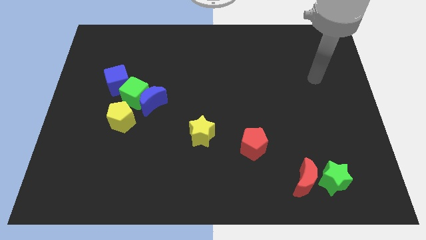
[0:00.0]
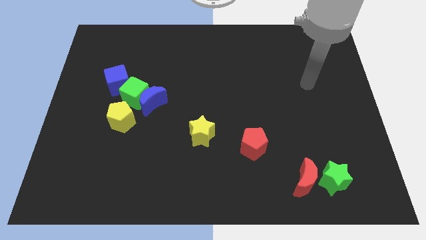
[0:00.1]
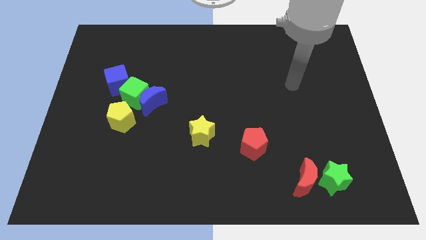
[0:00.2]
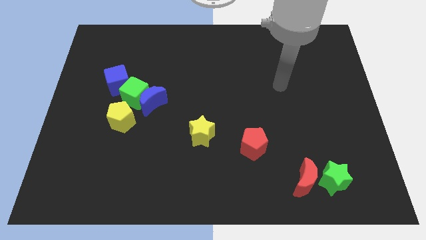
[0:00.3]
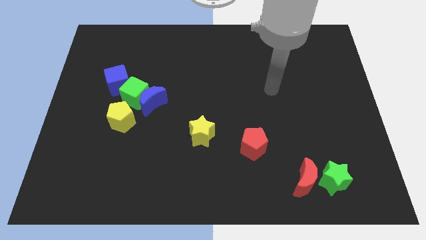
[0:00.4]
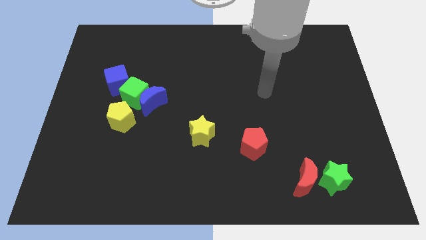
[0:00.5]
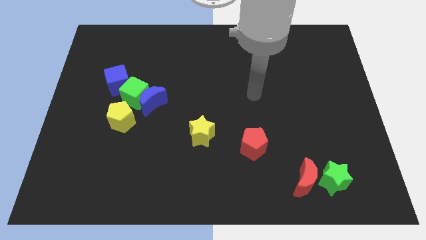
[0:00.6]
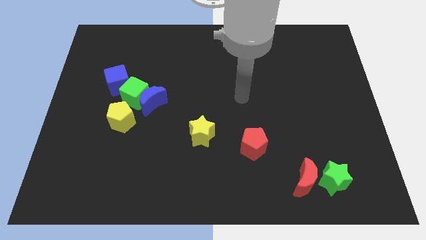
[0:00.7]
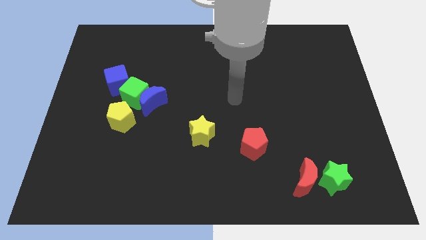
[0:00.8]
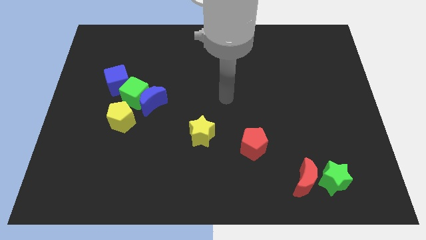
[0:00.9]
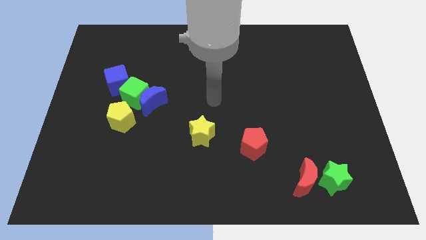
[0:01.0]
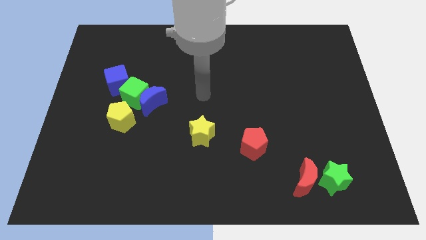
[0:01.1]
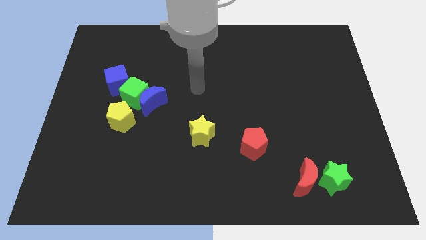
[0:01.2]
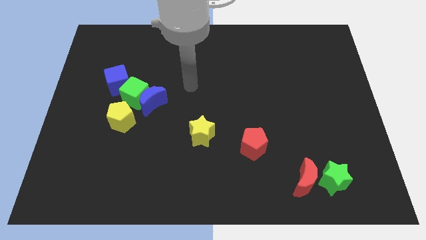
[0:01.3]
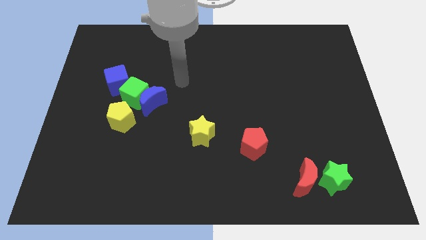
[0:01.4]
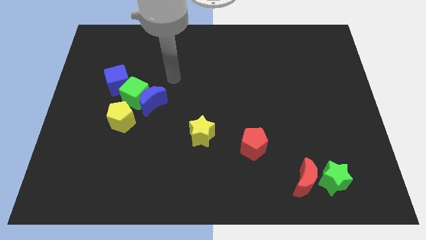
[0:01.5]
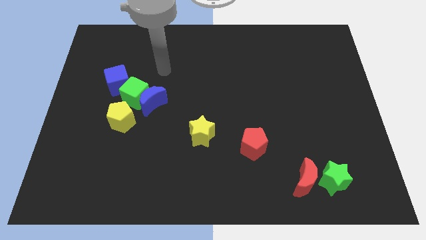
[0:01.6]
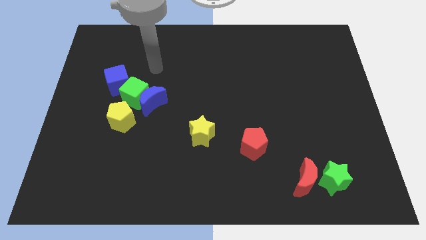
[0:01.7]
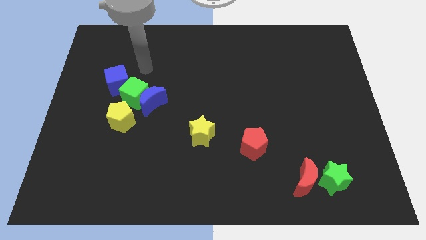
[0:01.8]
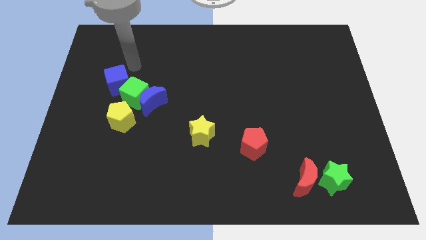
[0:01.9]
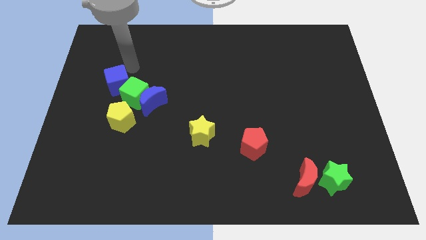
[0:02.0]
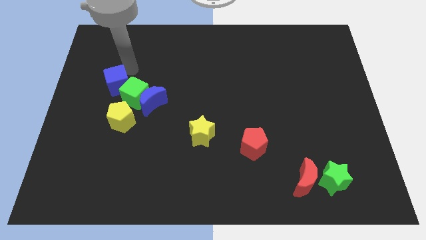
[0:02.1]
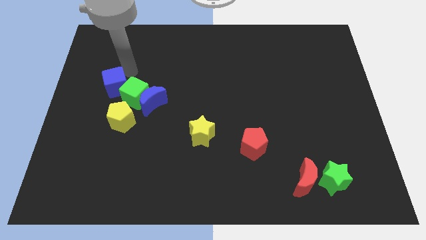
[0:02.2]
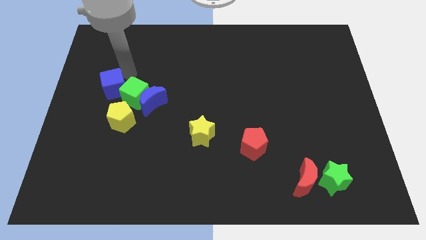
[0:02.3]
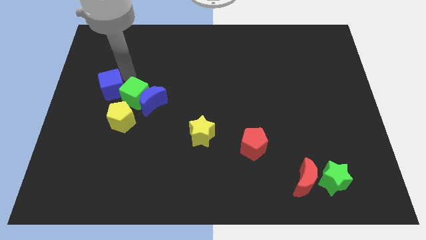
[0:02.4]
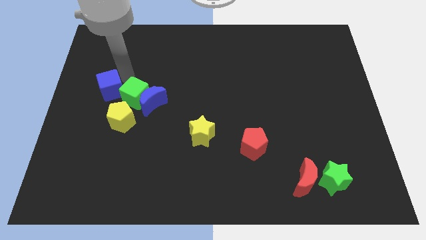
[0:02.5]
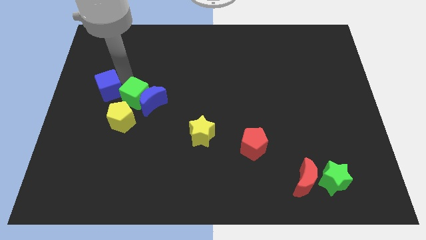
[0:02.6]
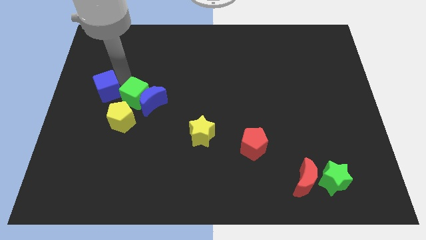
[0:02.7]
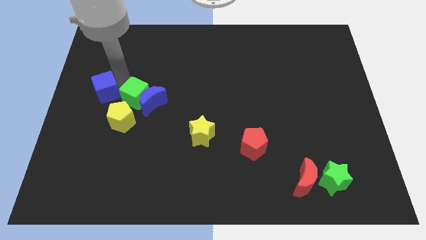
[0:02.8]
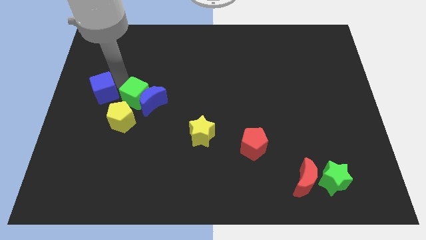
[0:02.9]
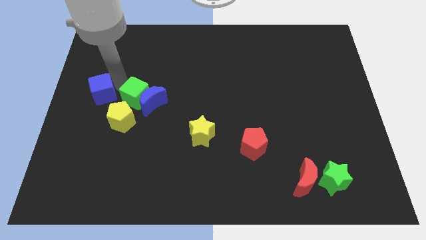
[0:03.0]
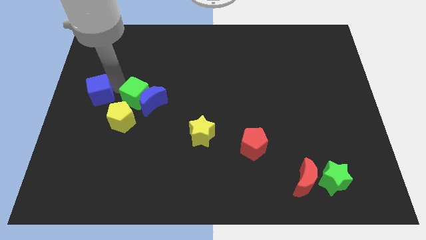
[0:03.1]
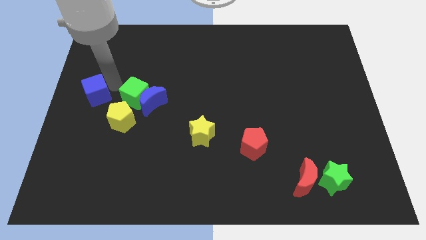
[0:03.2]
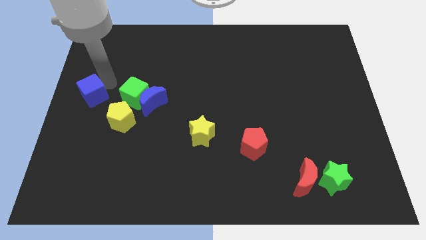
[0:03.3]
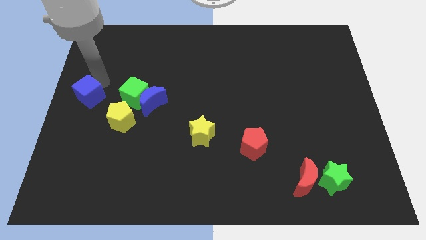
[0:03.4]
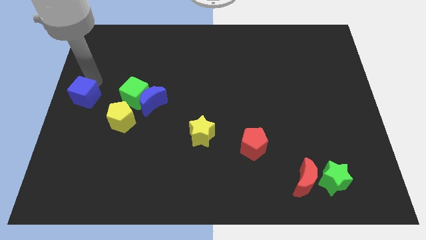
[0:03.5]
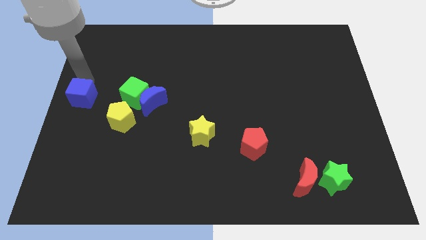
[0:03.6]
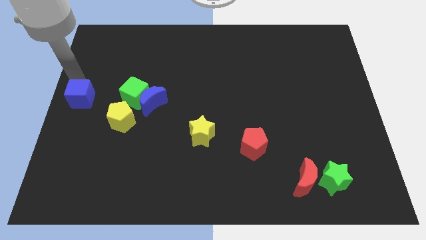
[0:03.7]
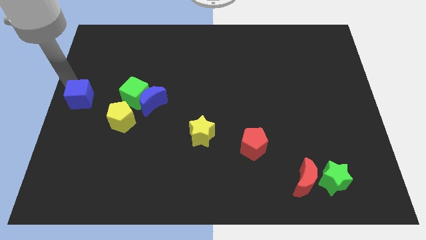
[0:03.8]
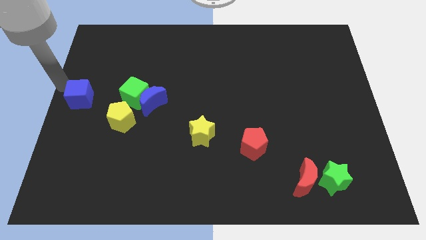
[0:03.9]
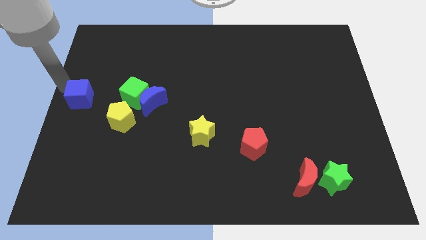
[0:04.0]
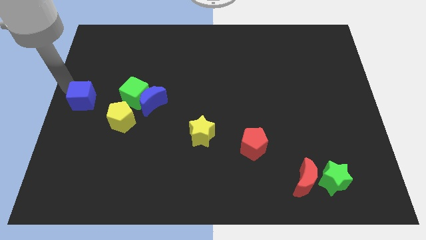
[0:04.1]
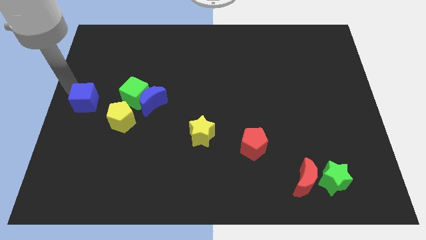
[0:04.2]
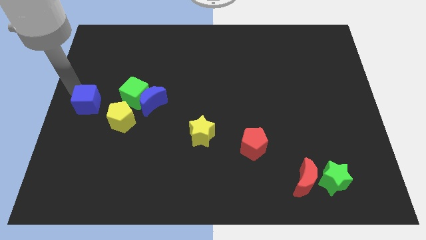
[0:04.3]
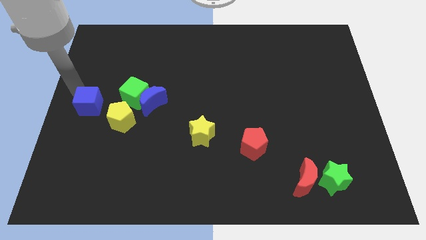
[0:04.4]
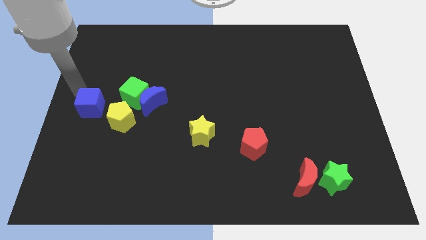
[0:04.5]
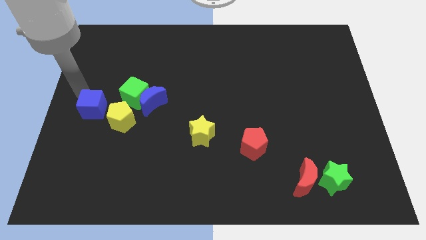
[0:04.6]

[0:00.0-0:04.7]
move the blue cube diagonally down and to the left of the green cube

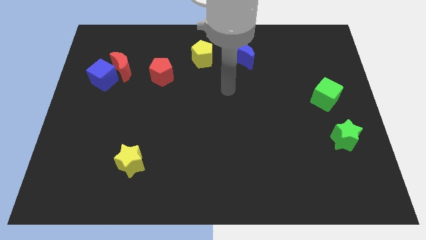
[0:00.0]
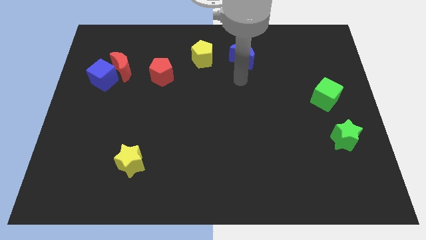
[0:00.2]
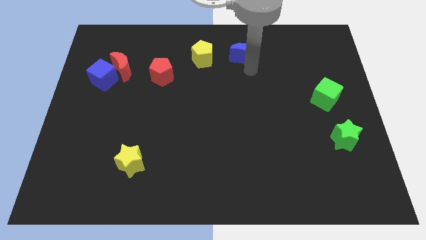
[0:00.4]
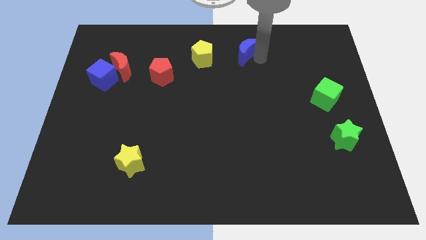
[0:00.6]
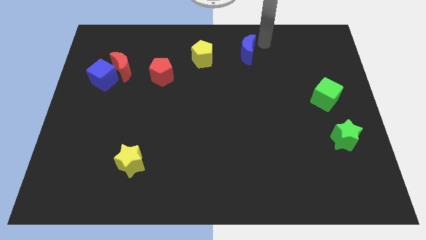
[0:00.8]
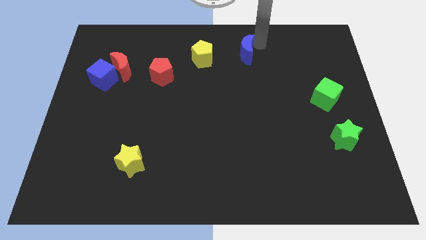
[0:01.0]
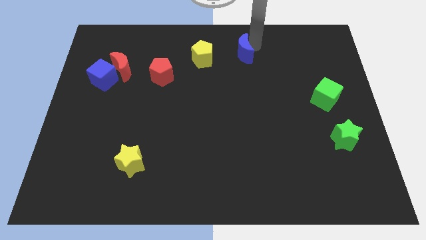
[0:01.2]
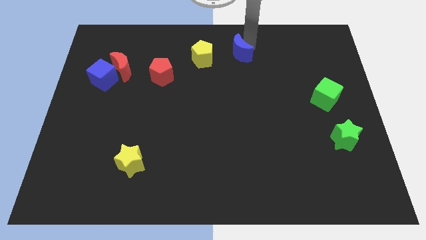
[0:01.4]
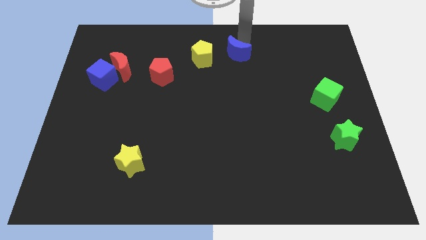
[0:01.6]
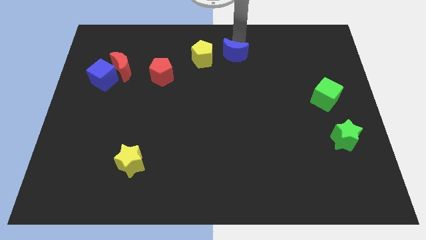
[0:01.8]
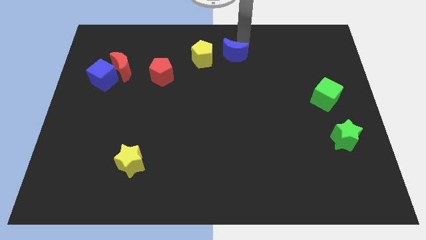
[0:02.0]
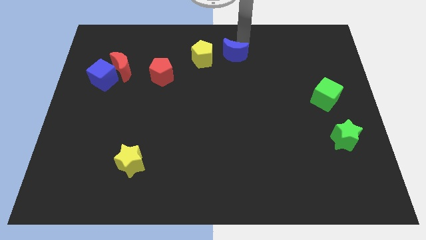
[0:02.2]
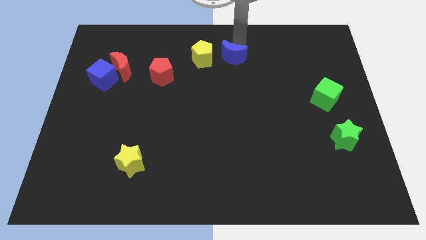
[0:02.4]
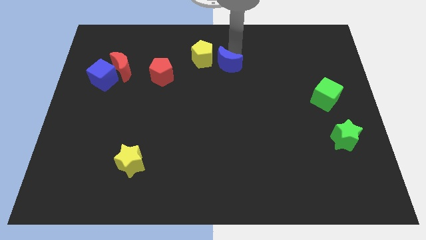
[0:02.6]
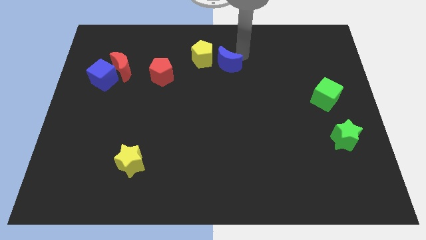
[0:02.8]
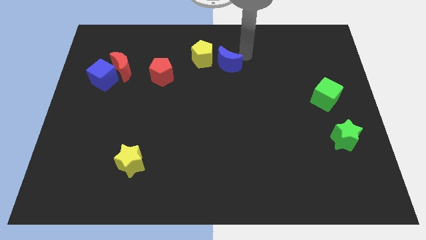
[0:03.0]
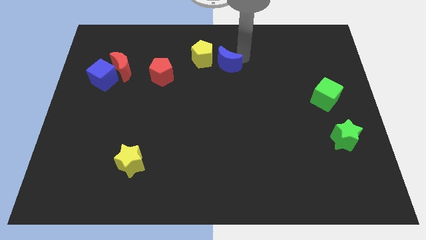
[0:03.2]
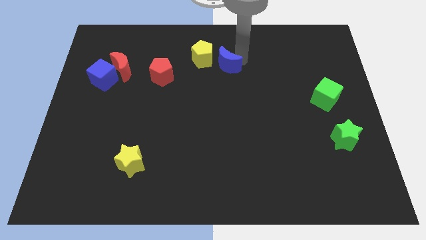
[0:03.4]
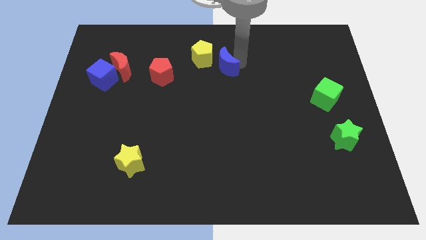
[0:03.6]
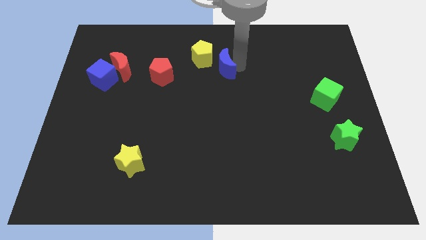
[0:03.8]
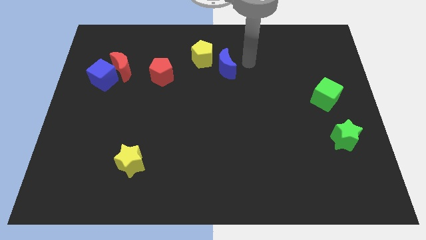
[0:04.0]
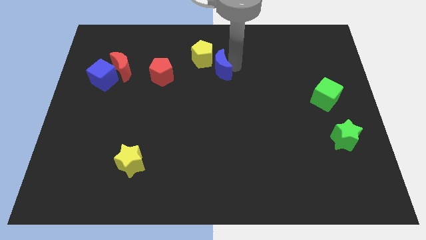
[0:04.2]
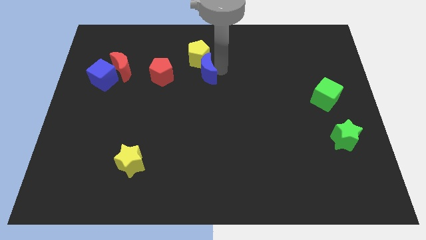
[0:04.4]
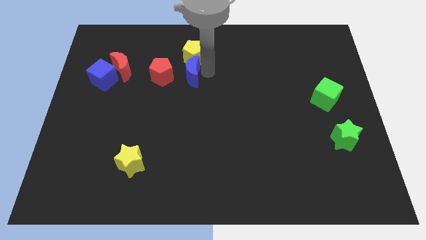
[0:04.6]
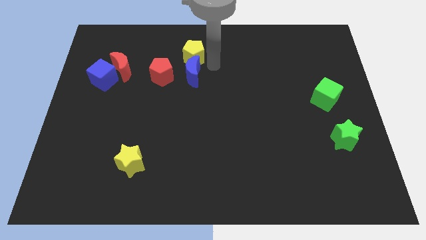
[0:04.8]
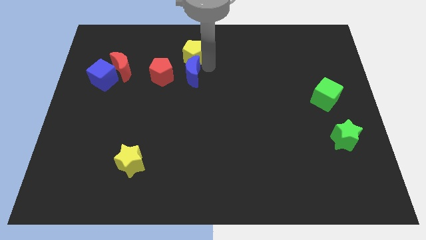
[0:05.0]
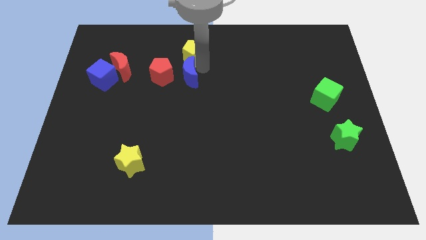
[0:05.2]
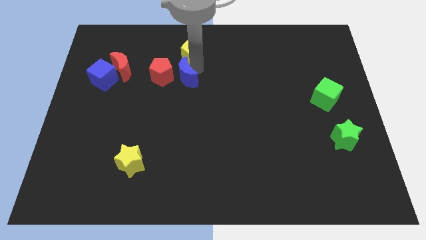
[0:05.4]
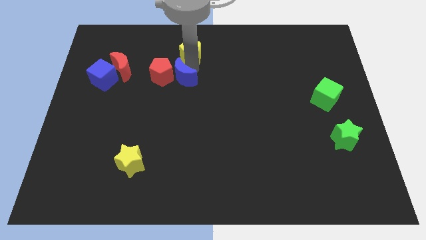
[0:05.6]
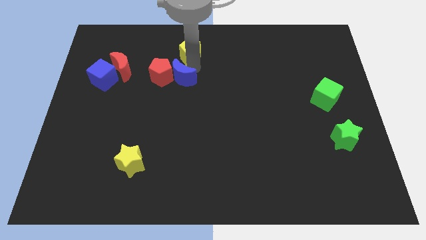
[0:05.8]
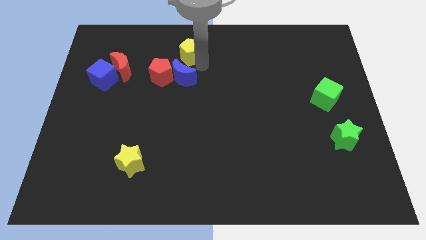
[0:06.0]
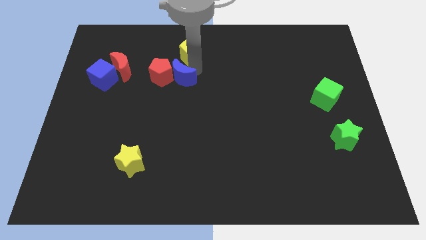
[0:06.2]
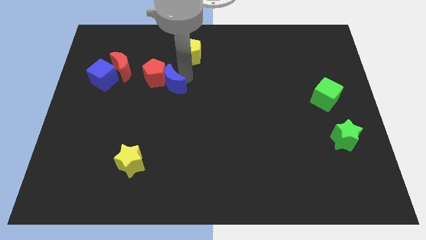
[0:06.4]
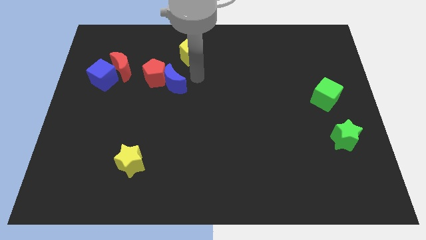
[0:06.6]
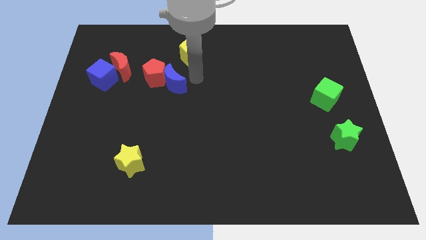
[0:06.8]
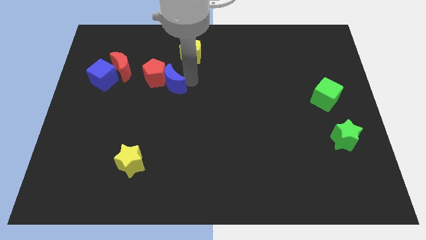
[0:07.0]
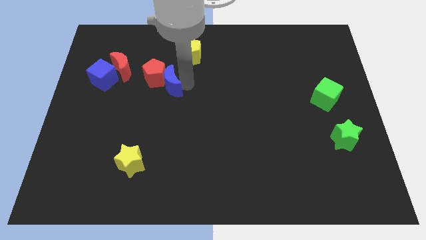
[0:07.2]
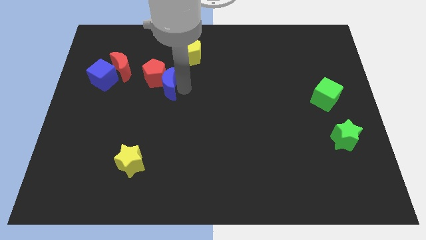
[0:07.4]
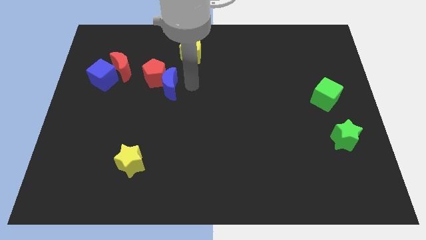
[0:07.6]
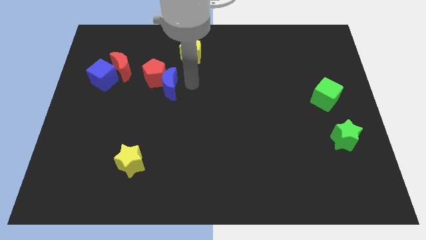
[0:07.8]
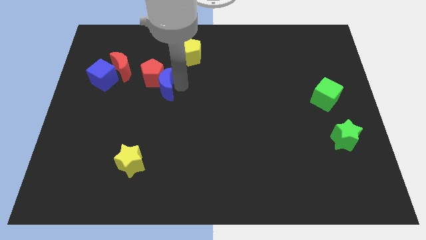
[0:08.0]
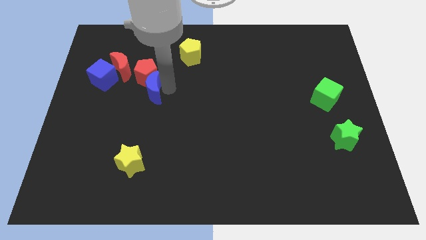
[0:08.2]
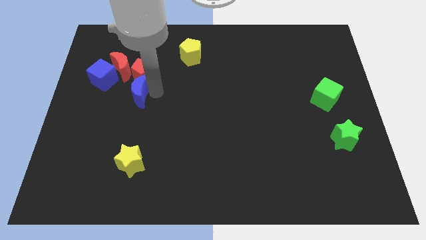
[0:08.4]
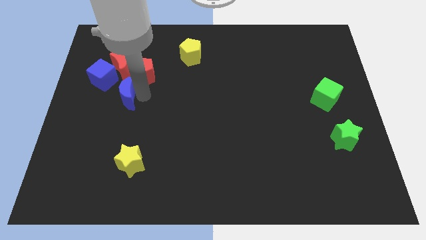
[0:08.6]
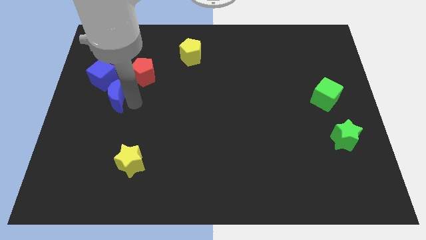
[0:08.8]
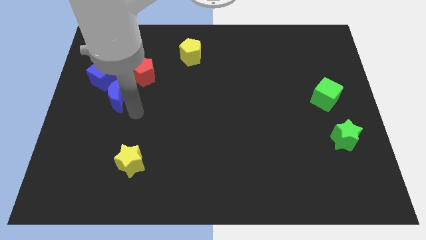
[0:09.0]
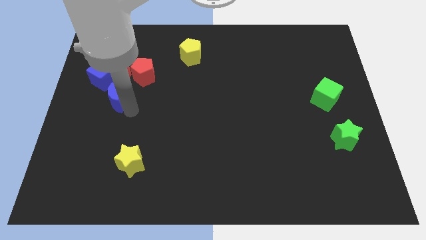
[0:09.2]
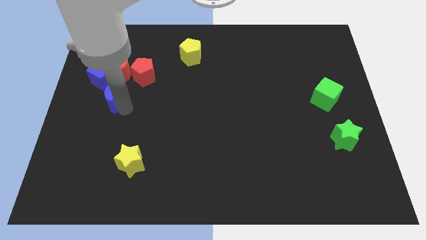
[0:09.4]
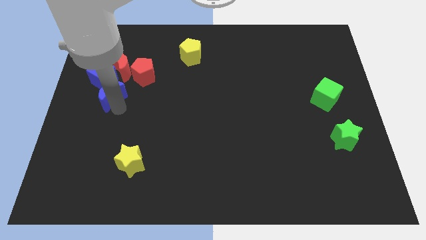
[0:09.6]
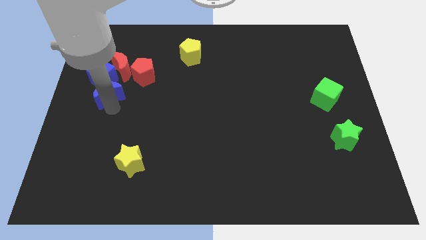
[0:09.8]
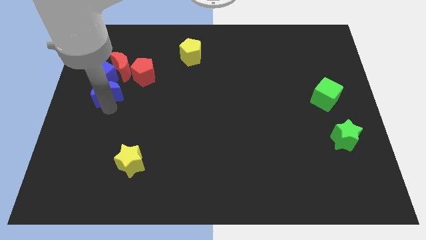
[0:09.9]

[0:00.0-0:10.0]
push the blue moon to the bottom left side of the red moon
